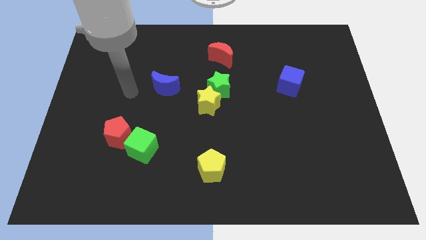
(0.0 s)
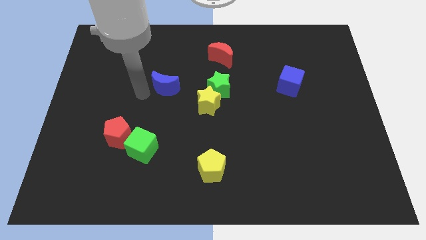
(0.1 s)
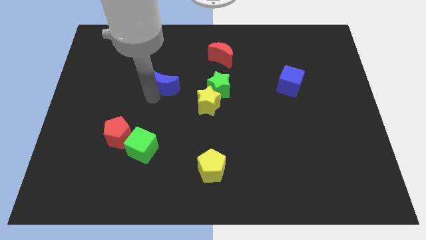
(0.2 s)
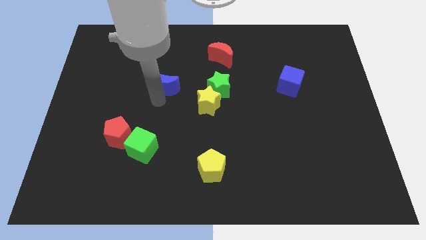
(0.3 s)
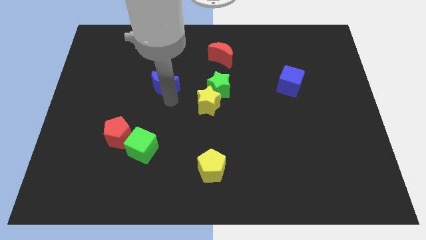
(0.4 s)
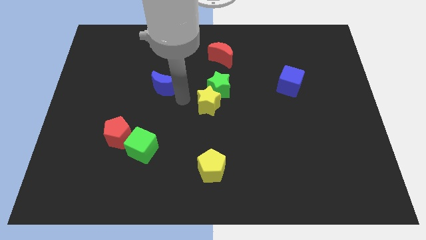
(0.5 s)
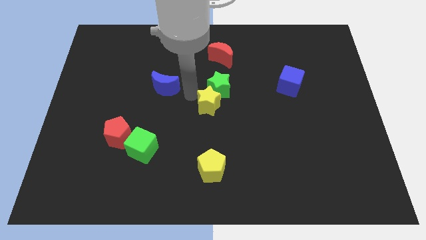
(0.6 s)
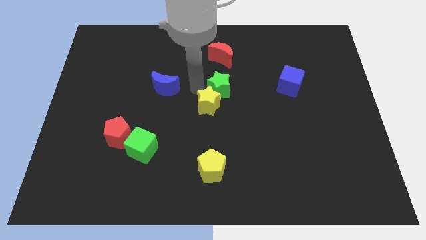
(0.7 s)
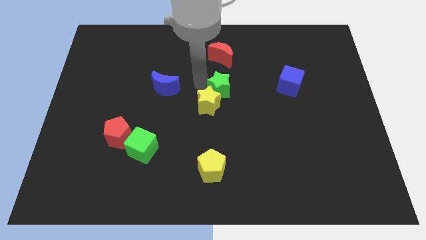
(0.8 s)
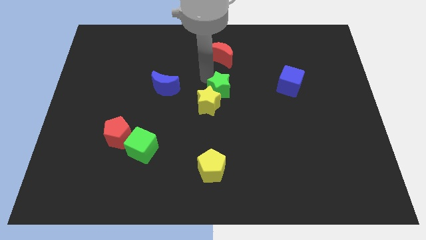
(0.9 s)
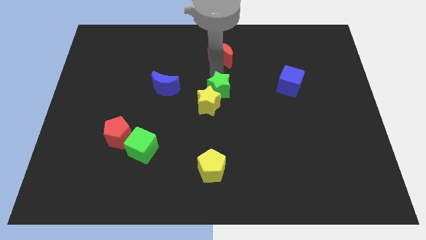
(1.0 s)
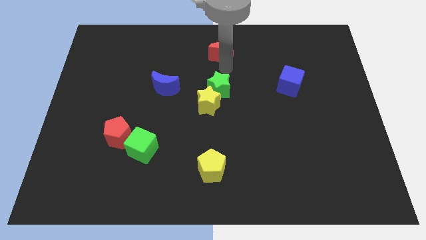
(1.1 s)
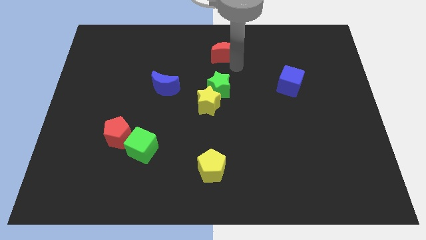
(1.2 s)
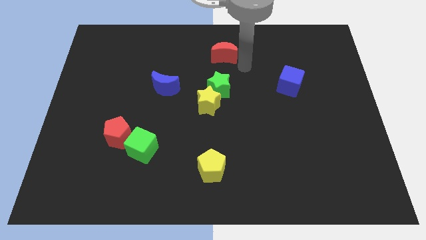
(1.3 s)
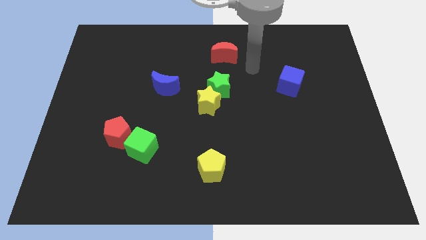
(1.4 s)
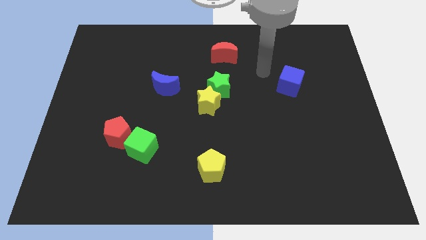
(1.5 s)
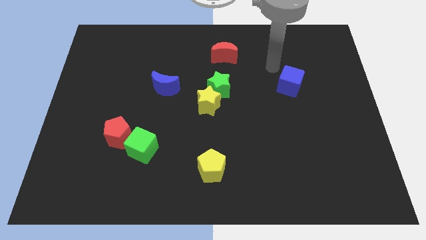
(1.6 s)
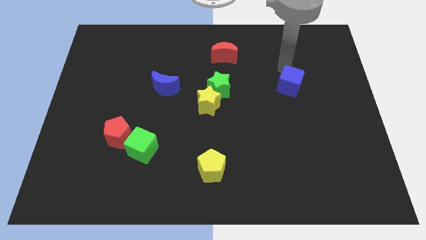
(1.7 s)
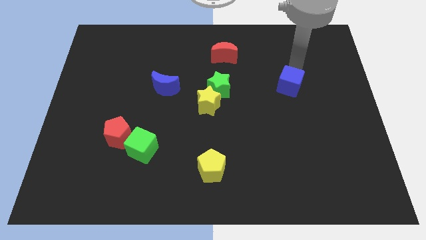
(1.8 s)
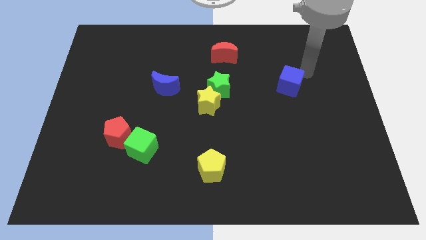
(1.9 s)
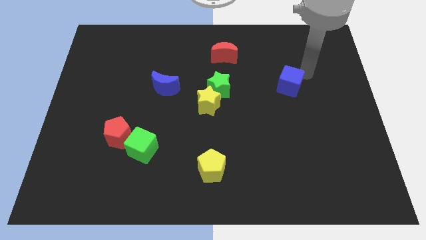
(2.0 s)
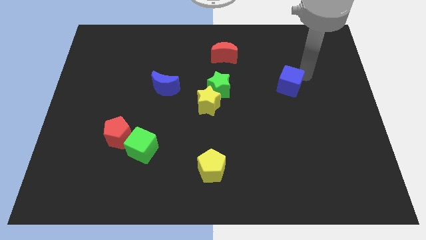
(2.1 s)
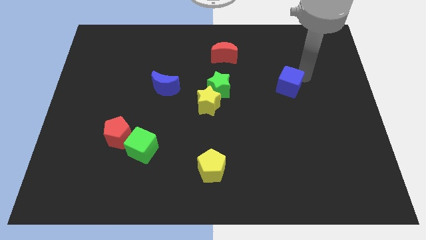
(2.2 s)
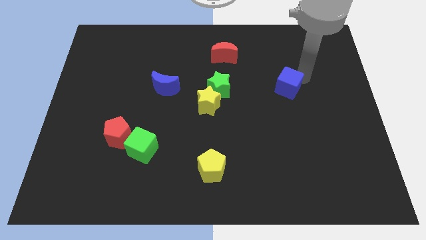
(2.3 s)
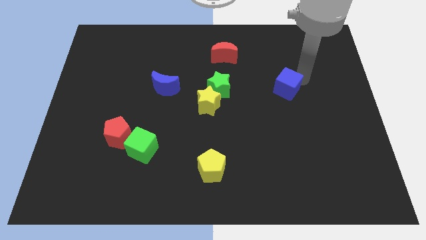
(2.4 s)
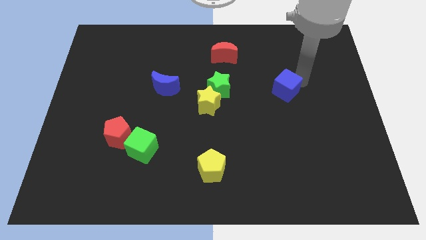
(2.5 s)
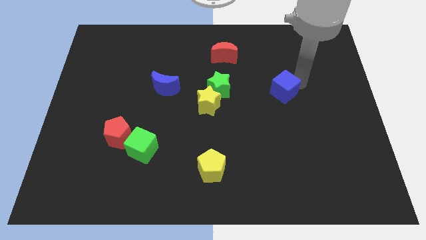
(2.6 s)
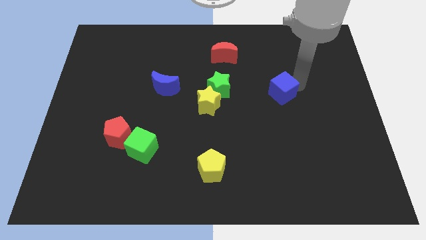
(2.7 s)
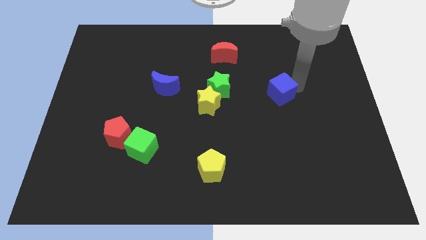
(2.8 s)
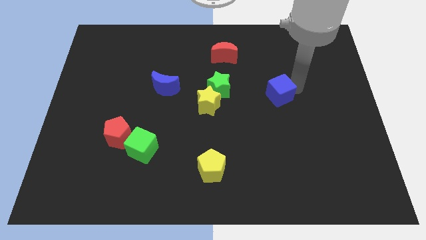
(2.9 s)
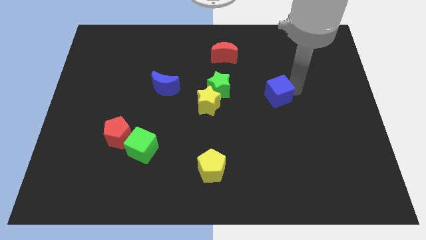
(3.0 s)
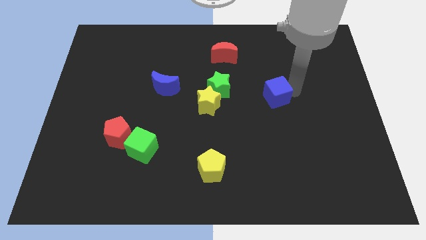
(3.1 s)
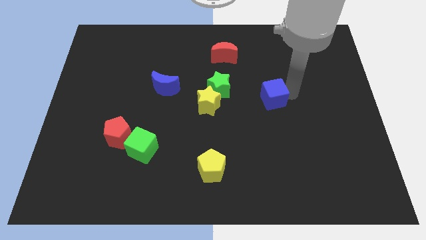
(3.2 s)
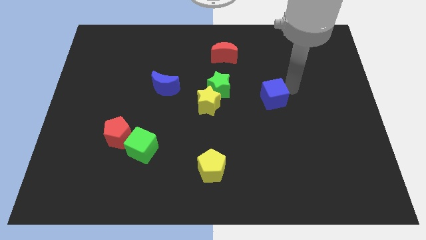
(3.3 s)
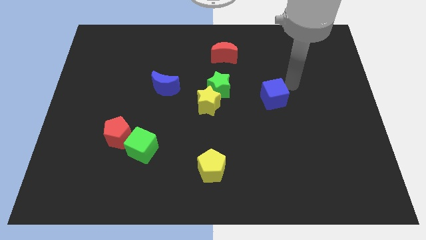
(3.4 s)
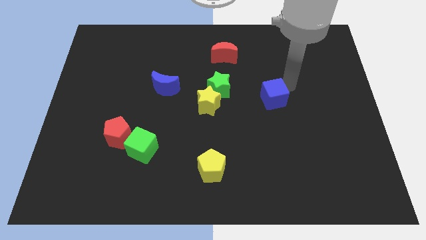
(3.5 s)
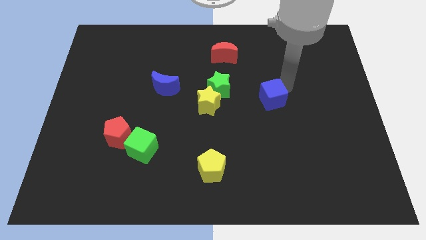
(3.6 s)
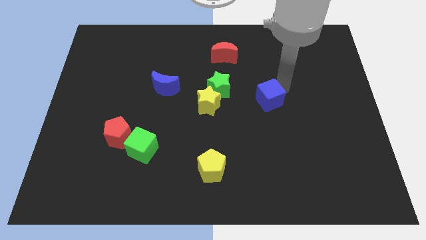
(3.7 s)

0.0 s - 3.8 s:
slightly push the blue cube diagonally down and to the left

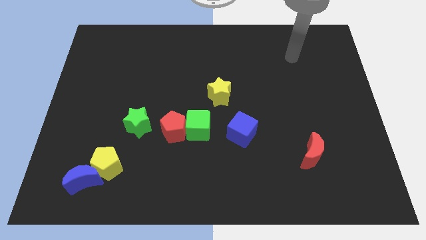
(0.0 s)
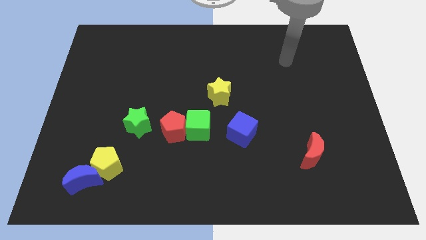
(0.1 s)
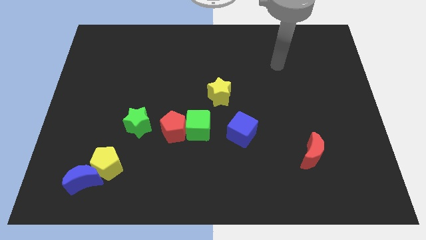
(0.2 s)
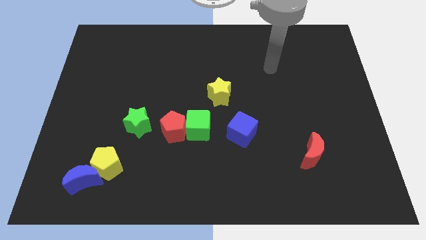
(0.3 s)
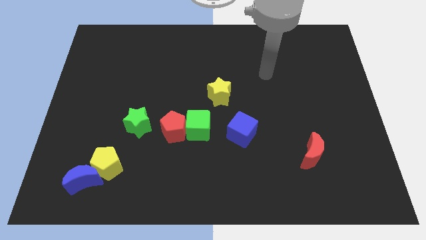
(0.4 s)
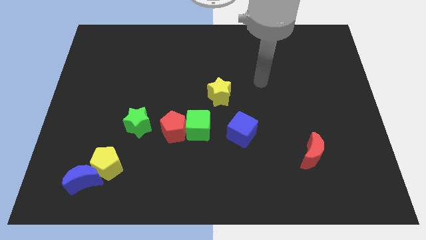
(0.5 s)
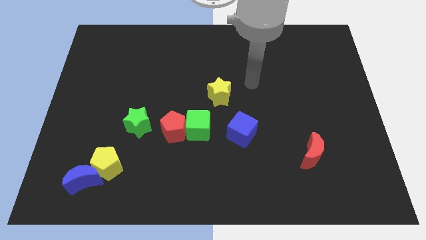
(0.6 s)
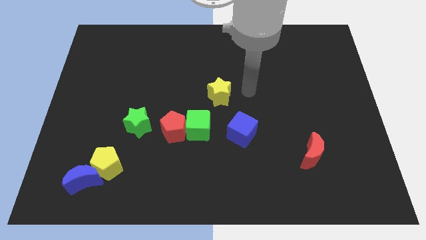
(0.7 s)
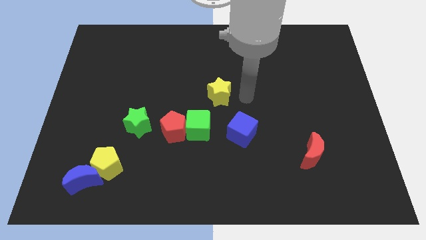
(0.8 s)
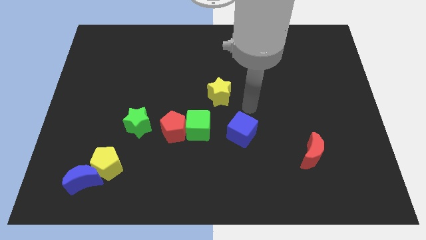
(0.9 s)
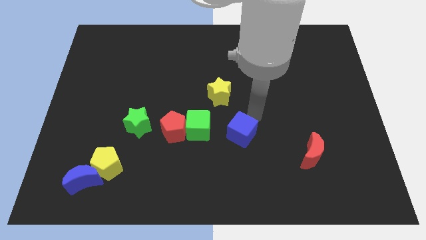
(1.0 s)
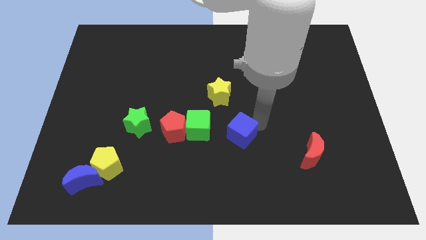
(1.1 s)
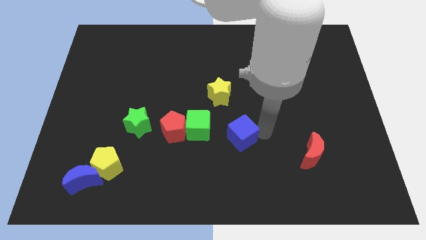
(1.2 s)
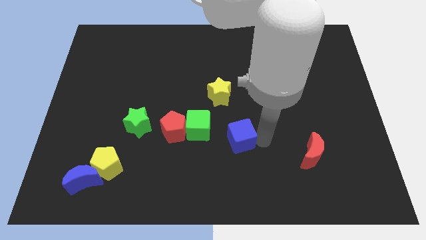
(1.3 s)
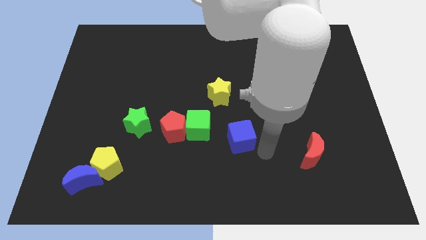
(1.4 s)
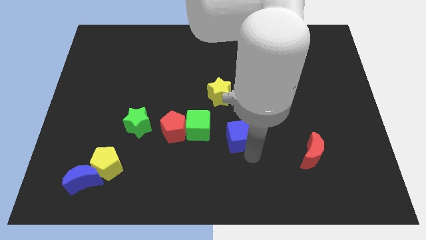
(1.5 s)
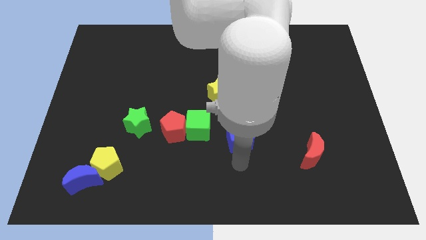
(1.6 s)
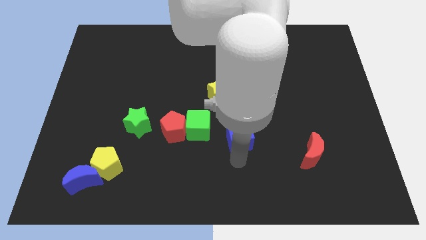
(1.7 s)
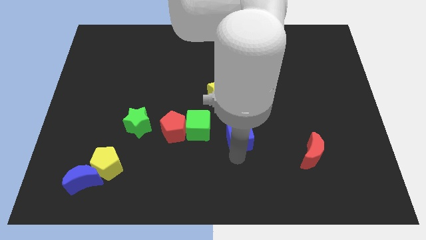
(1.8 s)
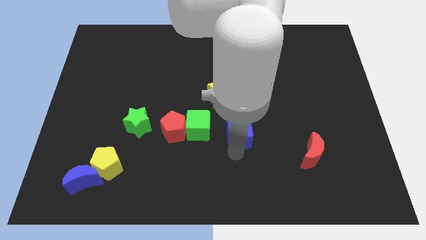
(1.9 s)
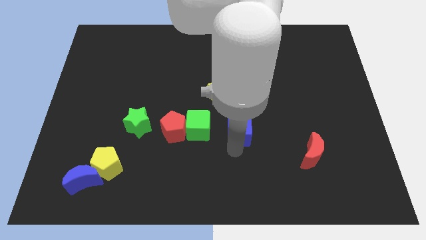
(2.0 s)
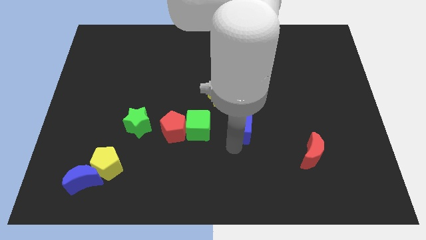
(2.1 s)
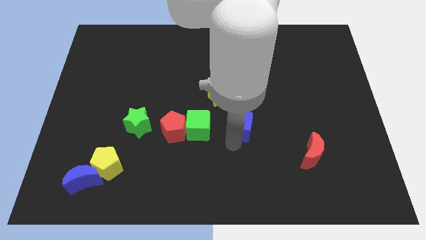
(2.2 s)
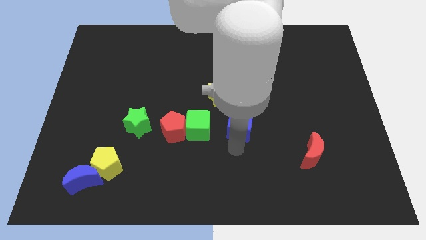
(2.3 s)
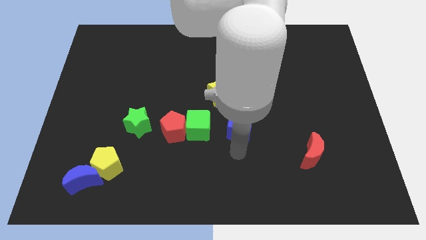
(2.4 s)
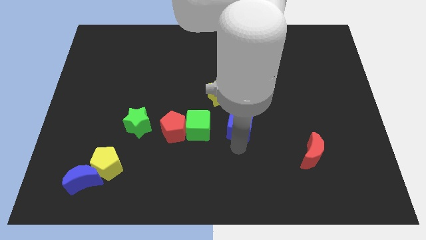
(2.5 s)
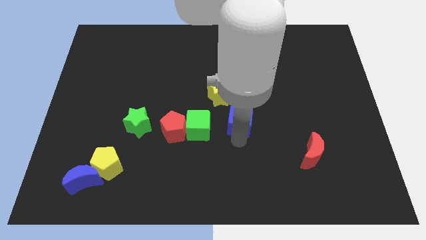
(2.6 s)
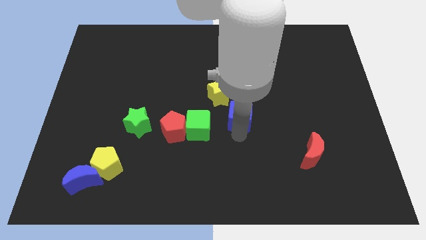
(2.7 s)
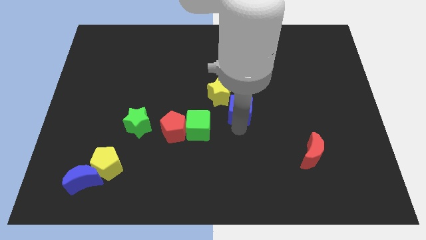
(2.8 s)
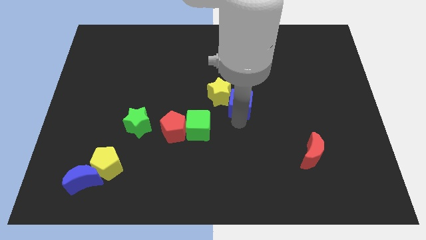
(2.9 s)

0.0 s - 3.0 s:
move the blue cube slightly up

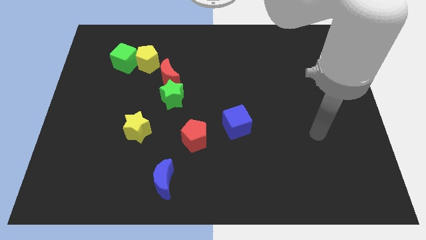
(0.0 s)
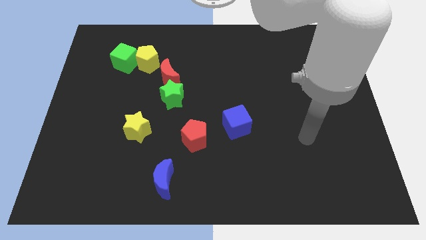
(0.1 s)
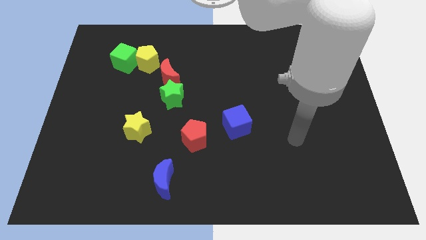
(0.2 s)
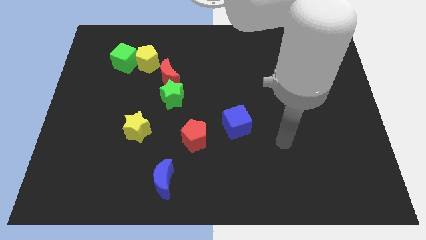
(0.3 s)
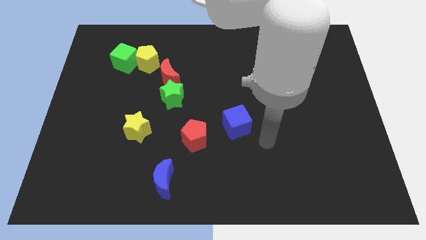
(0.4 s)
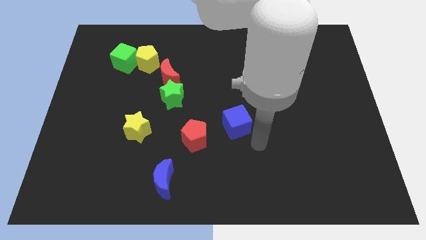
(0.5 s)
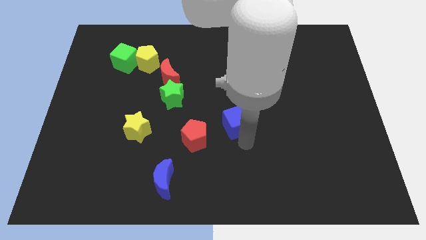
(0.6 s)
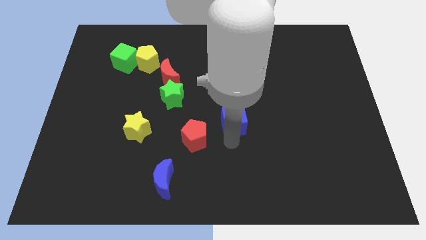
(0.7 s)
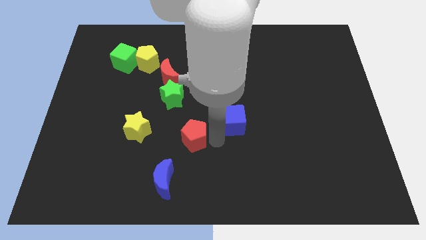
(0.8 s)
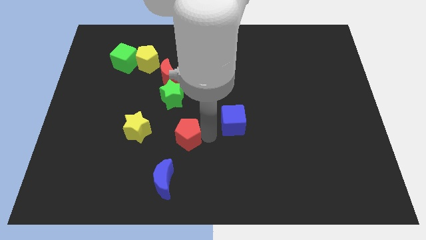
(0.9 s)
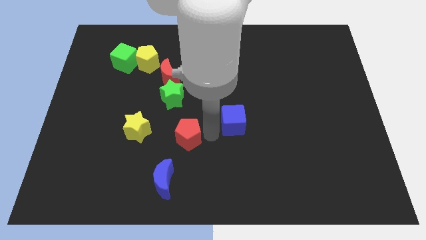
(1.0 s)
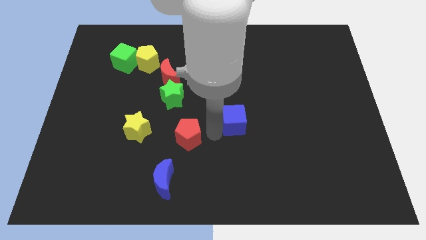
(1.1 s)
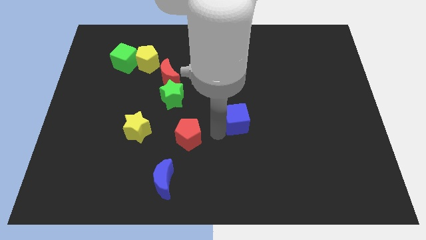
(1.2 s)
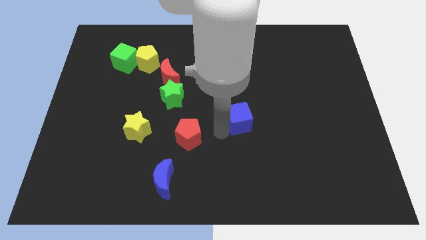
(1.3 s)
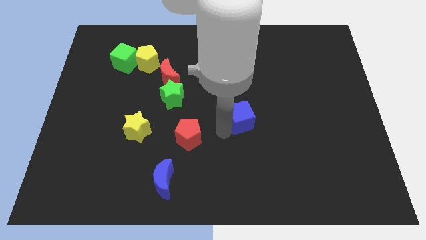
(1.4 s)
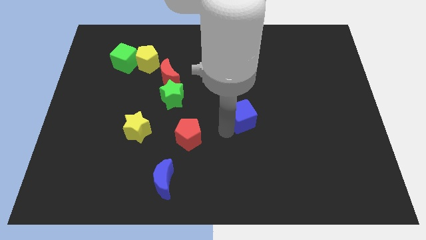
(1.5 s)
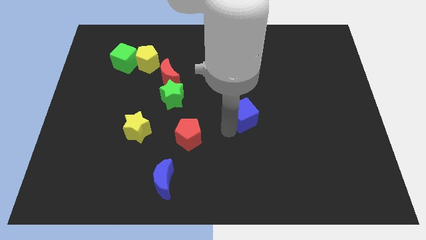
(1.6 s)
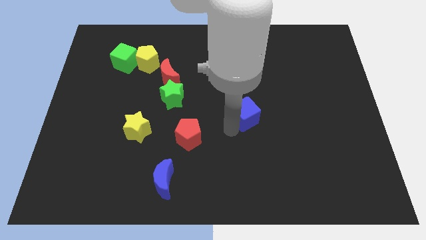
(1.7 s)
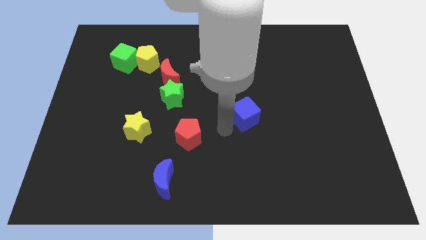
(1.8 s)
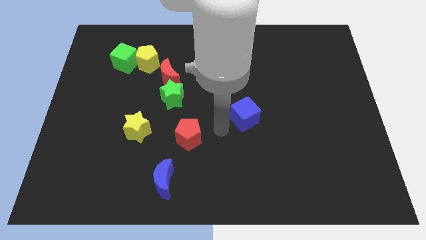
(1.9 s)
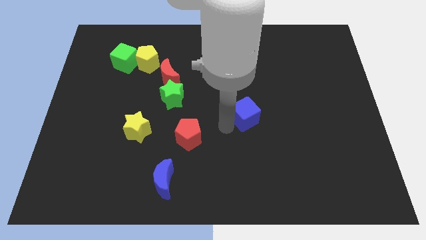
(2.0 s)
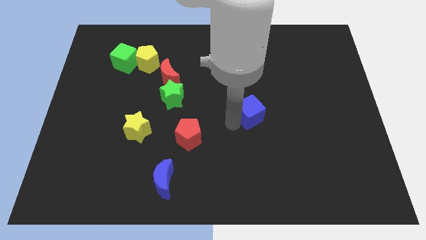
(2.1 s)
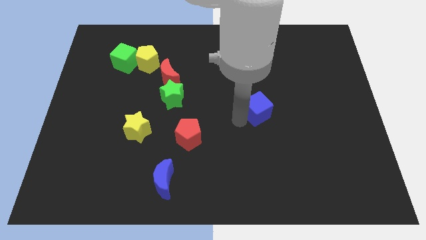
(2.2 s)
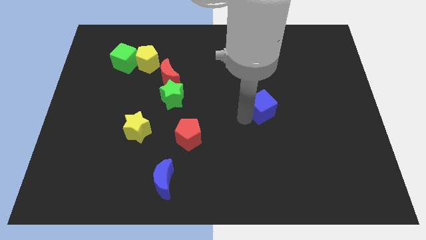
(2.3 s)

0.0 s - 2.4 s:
slide the blue cube a little bit upwards and then to the right
